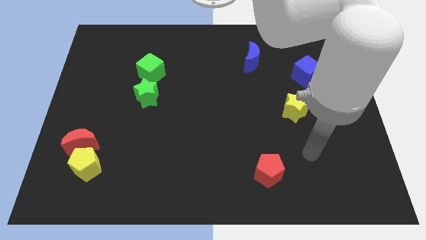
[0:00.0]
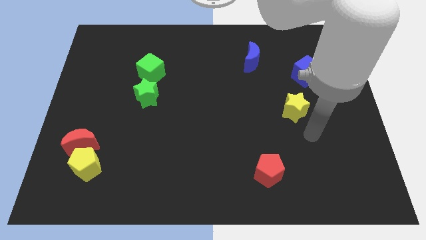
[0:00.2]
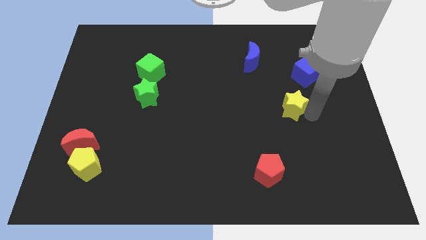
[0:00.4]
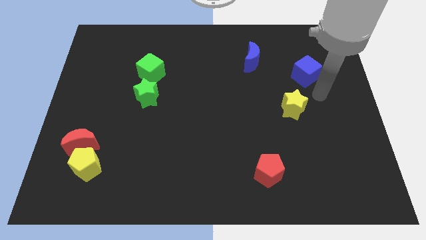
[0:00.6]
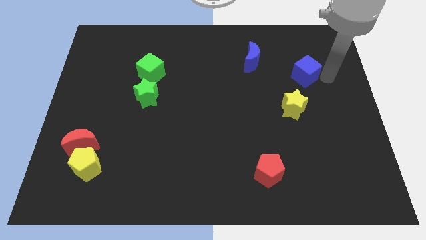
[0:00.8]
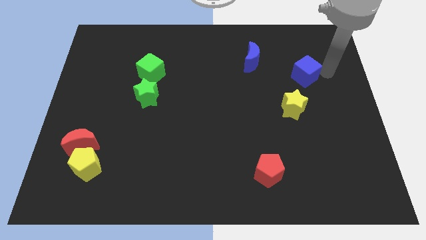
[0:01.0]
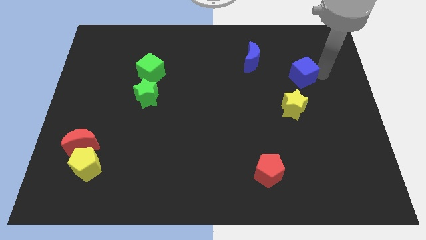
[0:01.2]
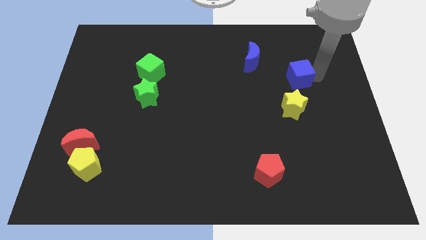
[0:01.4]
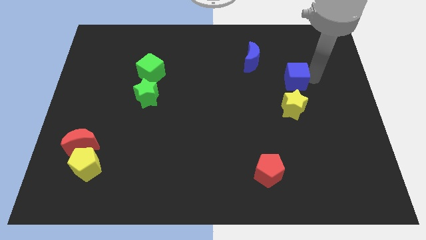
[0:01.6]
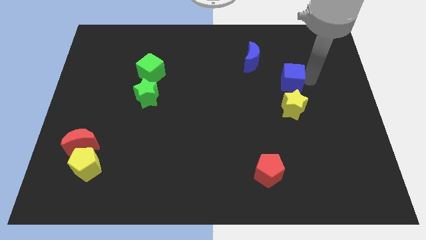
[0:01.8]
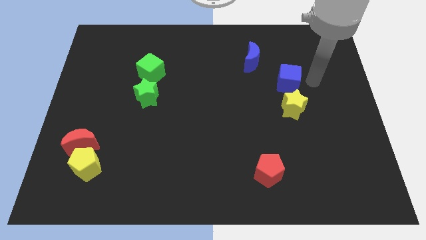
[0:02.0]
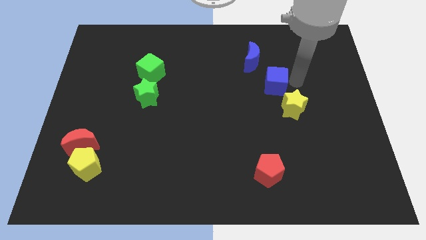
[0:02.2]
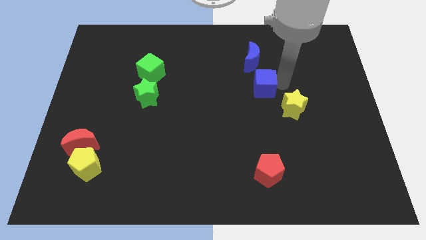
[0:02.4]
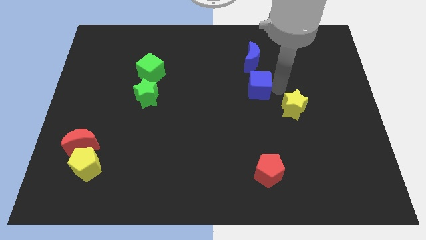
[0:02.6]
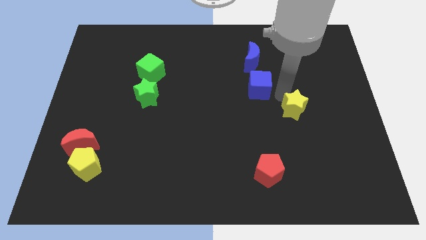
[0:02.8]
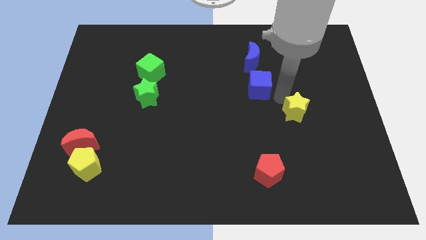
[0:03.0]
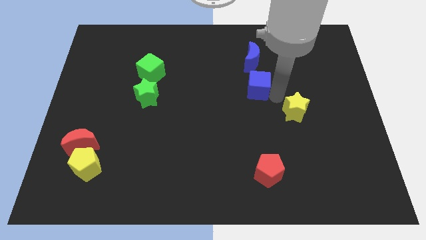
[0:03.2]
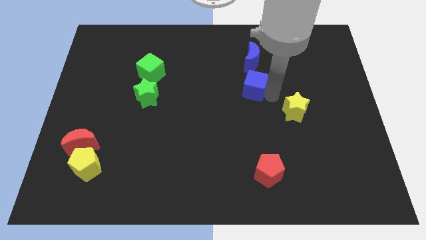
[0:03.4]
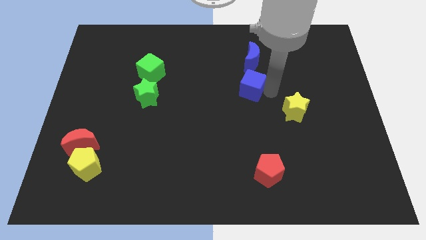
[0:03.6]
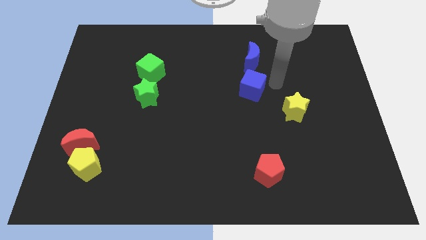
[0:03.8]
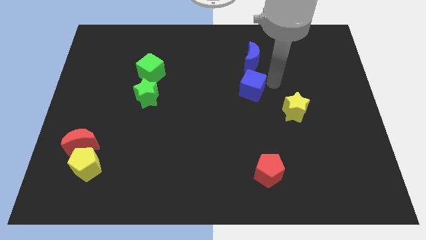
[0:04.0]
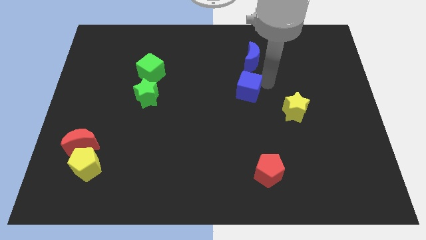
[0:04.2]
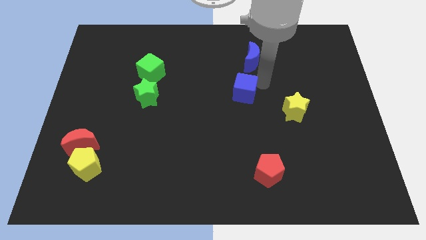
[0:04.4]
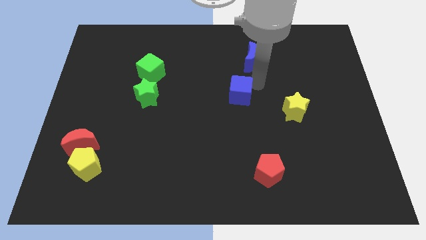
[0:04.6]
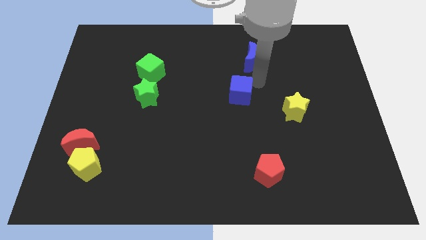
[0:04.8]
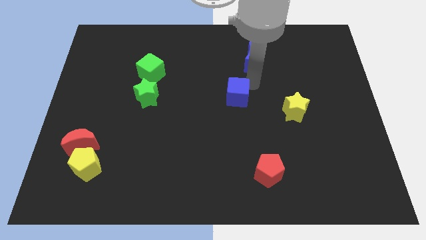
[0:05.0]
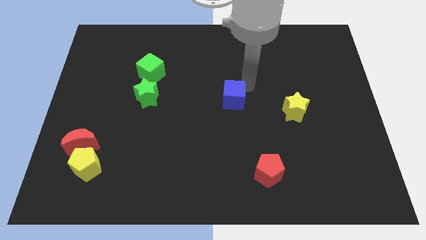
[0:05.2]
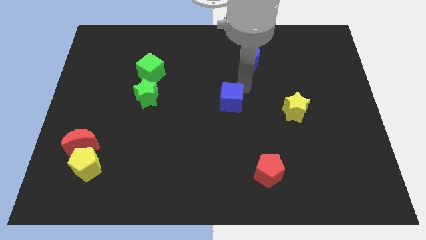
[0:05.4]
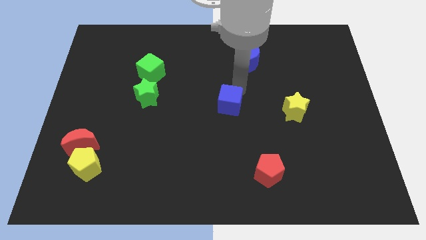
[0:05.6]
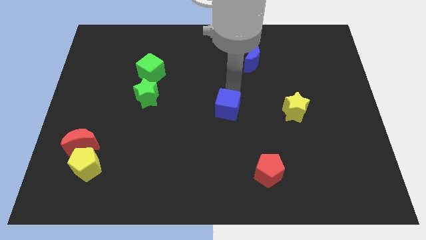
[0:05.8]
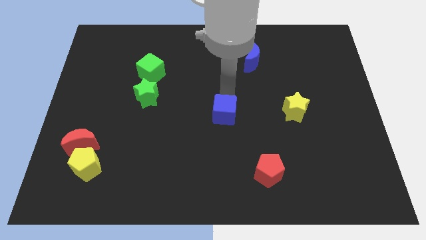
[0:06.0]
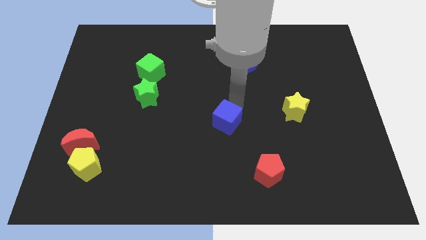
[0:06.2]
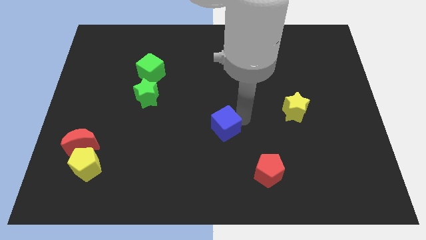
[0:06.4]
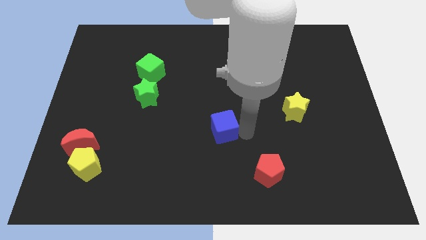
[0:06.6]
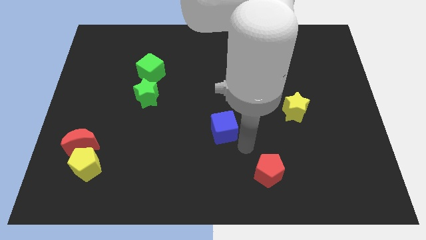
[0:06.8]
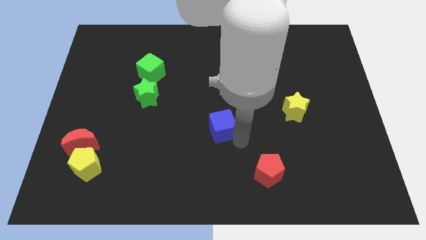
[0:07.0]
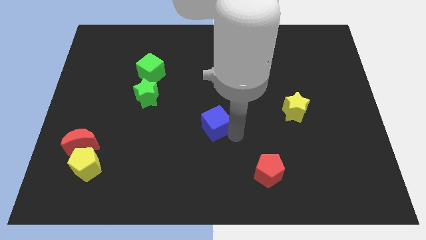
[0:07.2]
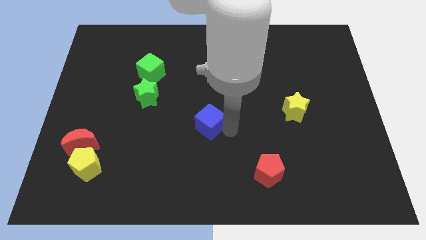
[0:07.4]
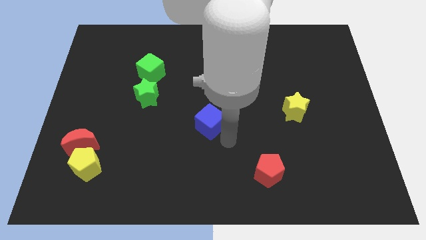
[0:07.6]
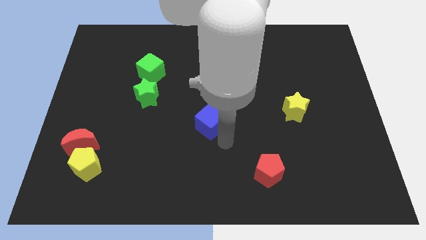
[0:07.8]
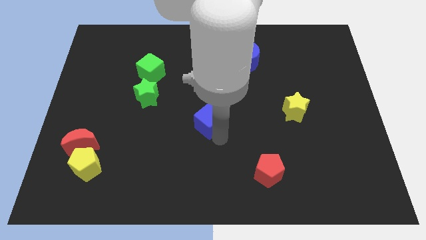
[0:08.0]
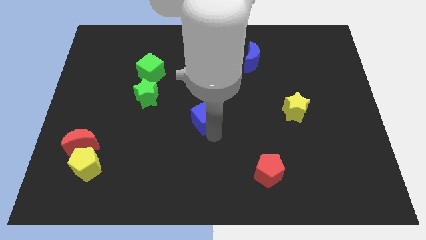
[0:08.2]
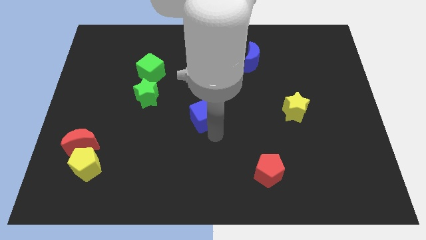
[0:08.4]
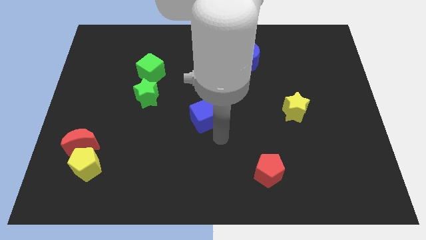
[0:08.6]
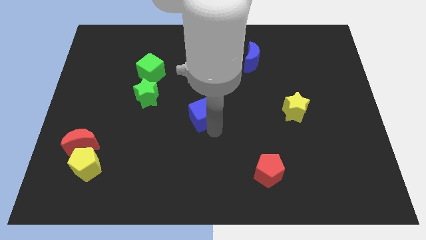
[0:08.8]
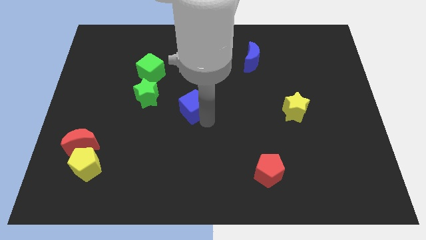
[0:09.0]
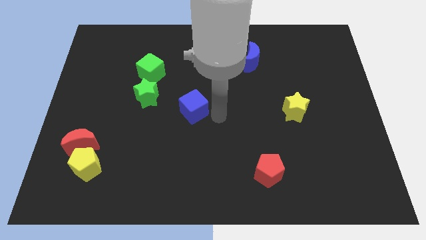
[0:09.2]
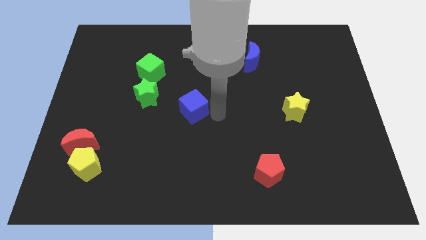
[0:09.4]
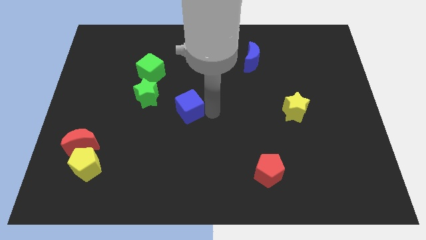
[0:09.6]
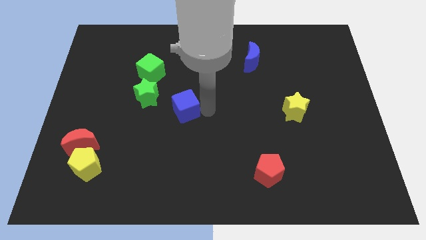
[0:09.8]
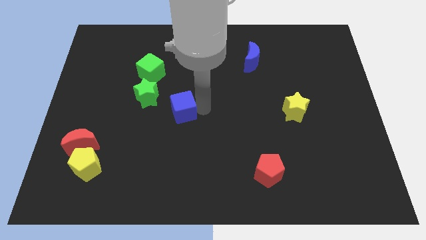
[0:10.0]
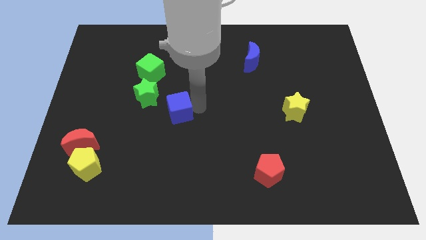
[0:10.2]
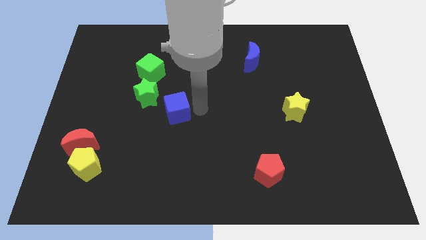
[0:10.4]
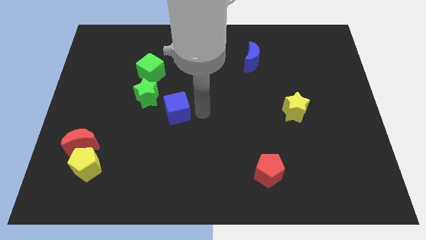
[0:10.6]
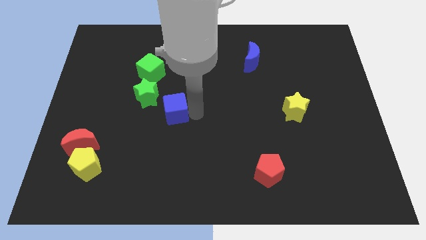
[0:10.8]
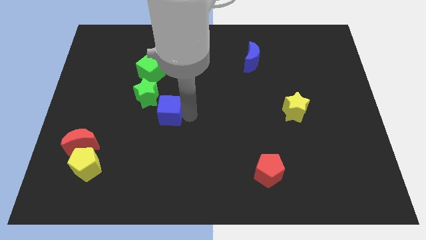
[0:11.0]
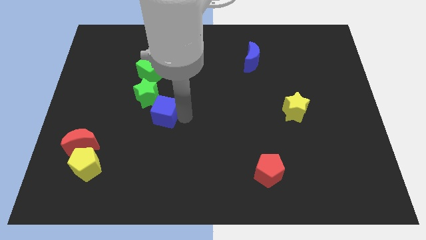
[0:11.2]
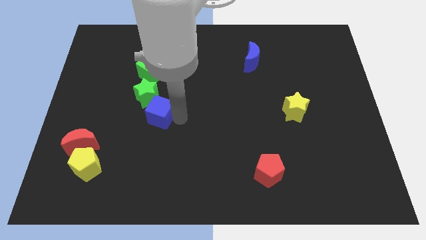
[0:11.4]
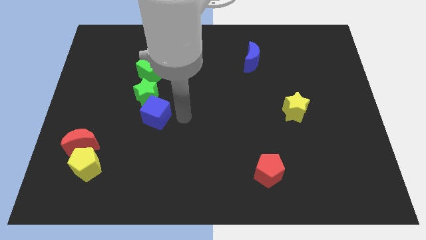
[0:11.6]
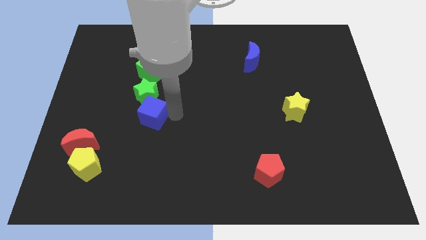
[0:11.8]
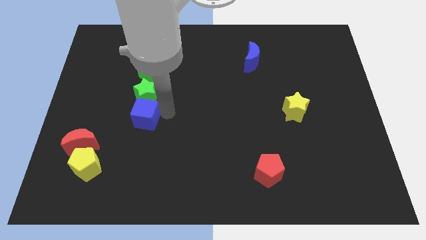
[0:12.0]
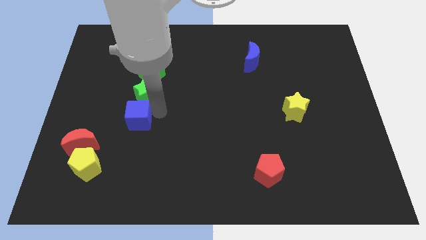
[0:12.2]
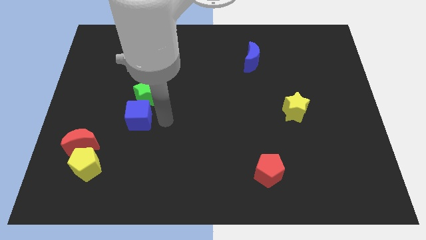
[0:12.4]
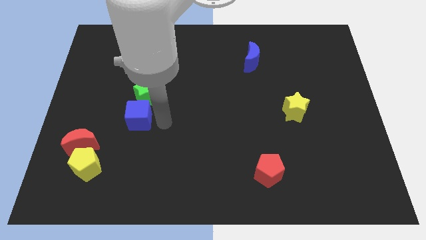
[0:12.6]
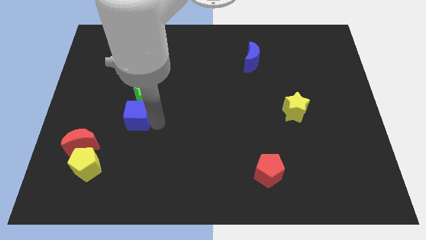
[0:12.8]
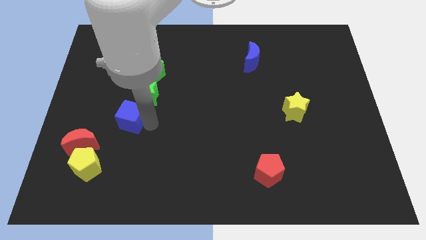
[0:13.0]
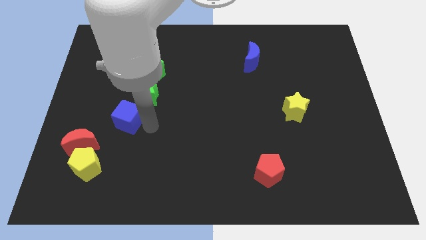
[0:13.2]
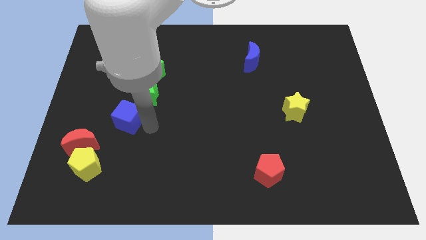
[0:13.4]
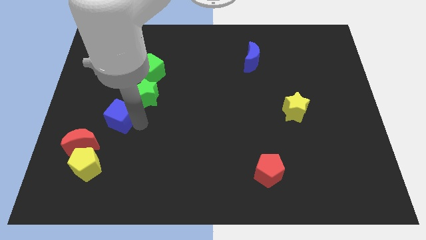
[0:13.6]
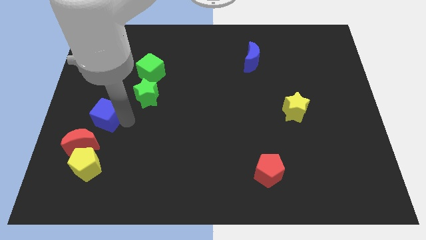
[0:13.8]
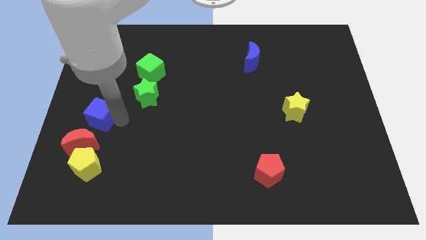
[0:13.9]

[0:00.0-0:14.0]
put the blue cube to the center left
